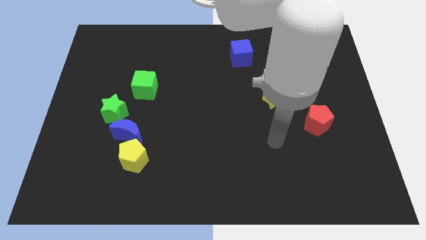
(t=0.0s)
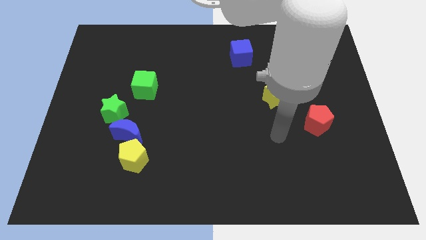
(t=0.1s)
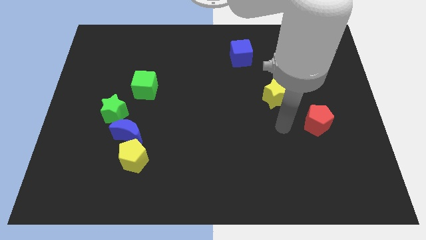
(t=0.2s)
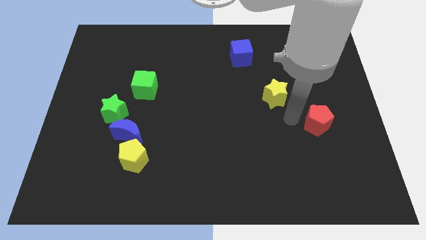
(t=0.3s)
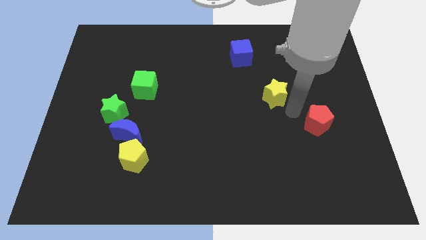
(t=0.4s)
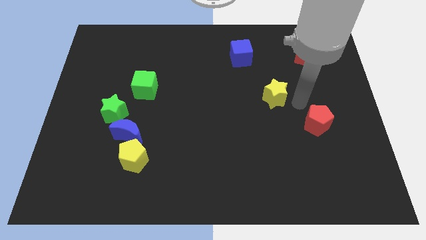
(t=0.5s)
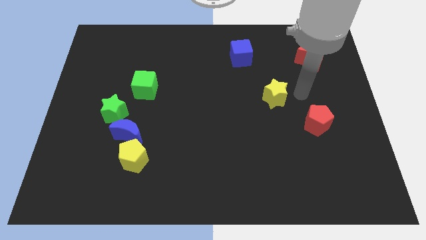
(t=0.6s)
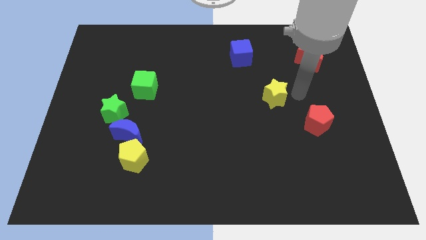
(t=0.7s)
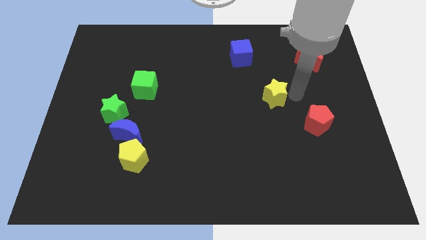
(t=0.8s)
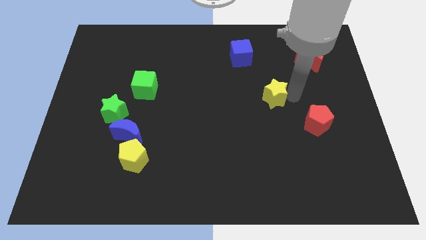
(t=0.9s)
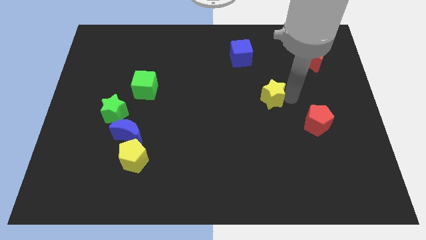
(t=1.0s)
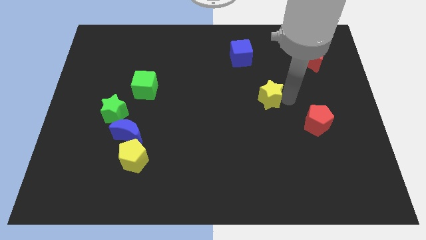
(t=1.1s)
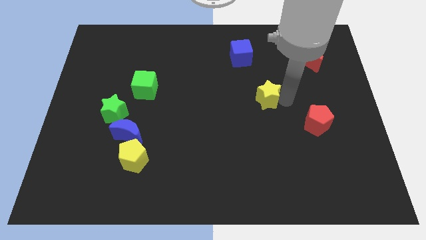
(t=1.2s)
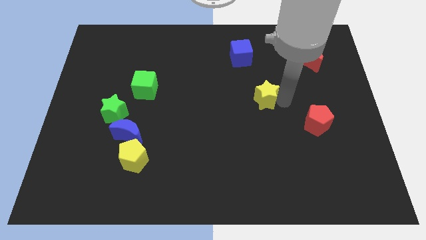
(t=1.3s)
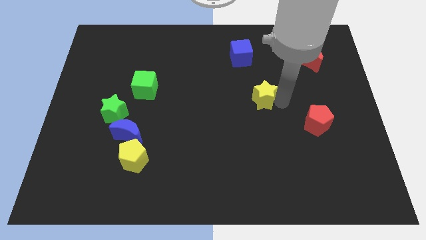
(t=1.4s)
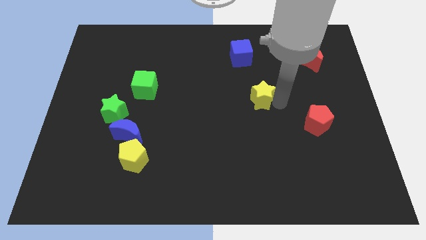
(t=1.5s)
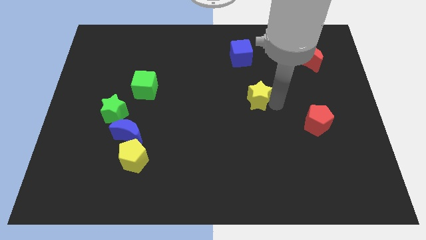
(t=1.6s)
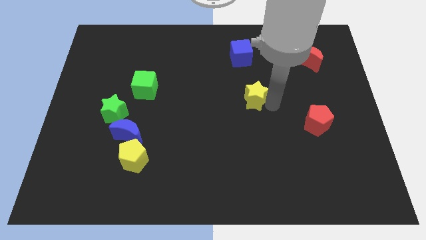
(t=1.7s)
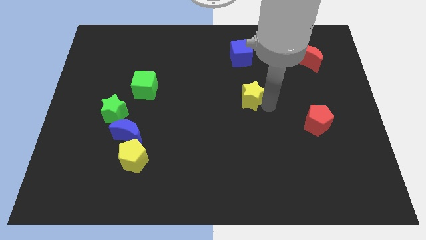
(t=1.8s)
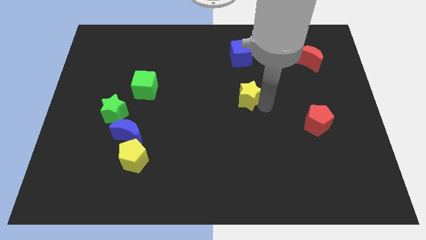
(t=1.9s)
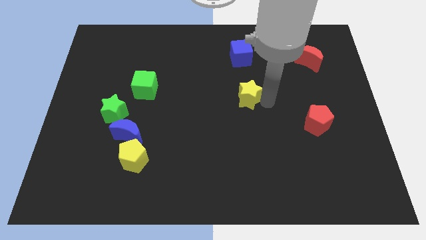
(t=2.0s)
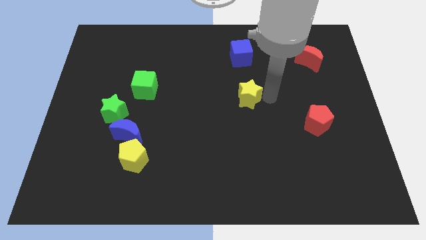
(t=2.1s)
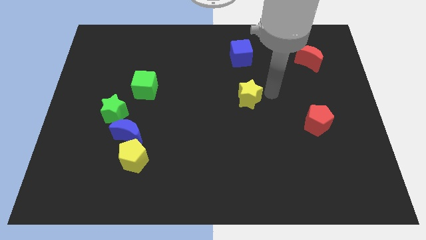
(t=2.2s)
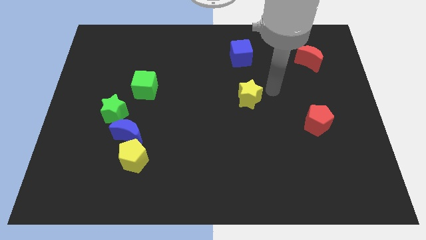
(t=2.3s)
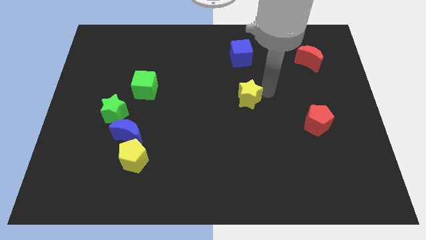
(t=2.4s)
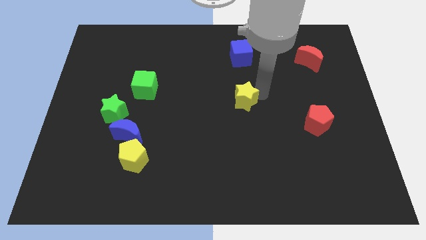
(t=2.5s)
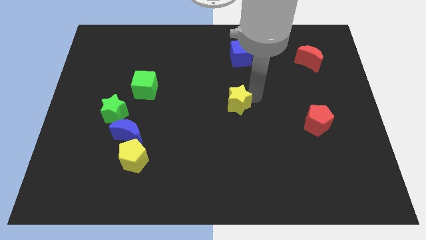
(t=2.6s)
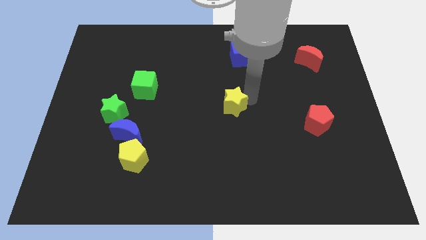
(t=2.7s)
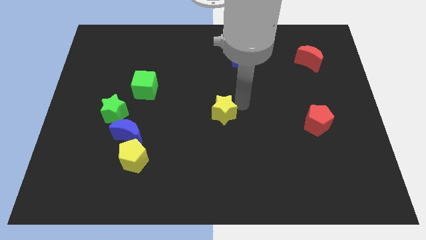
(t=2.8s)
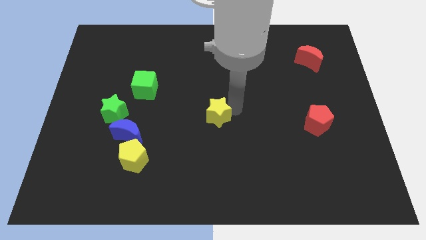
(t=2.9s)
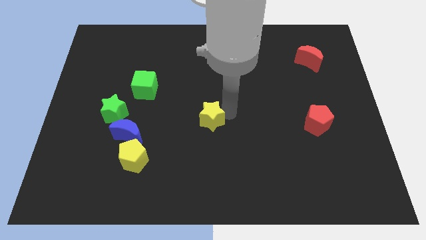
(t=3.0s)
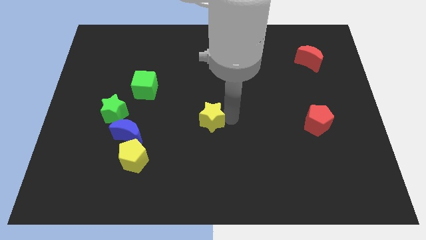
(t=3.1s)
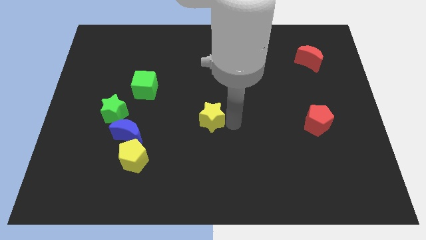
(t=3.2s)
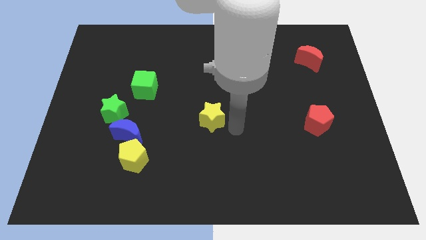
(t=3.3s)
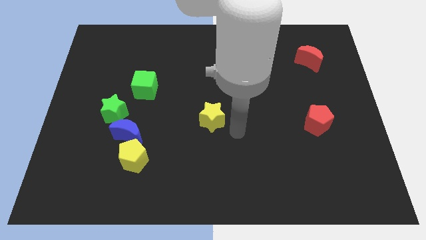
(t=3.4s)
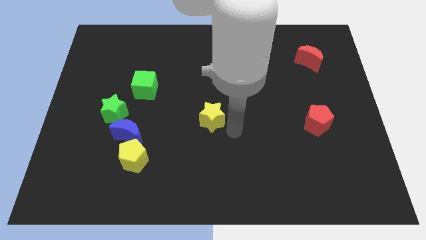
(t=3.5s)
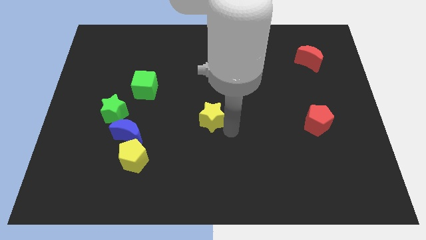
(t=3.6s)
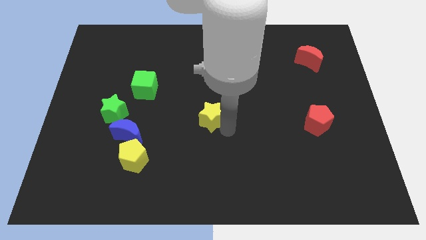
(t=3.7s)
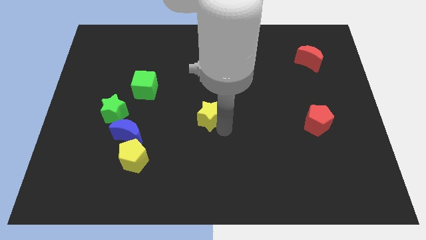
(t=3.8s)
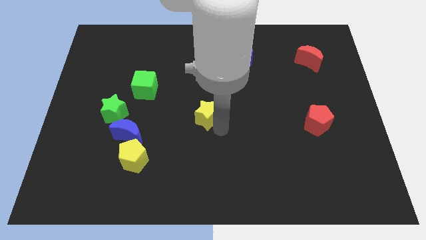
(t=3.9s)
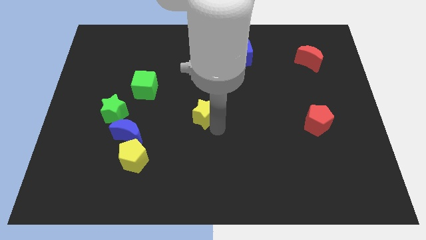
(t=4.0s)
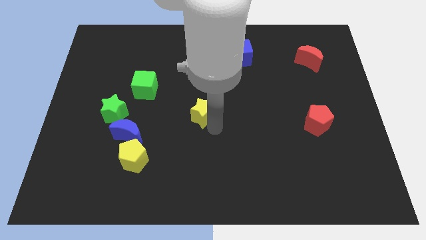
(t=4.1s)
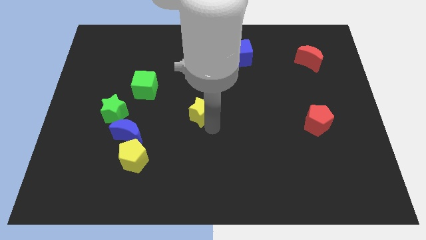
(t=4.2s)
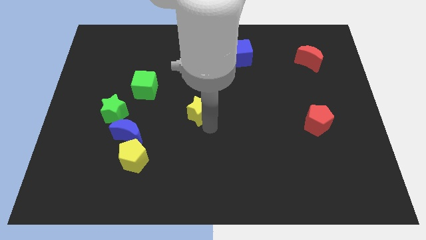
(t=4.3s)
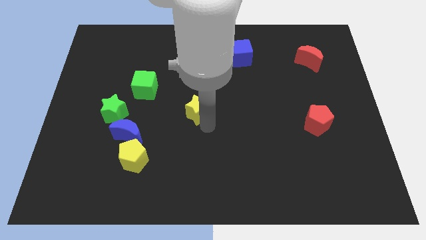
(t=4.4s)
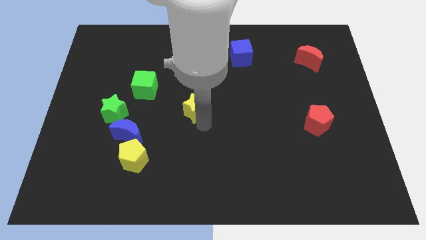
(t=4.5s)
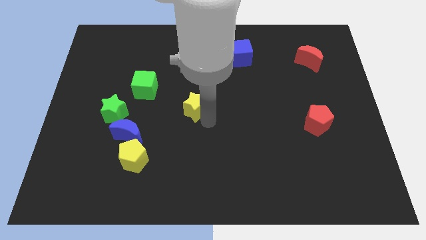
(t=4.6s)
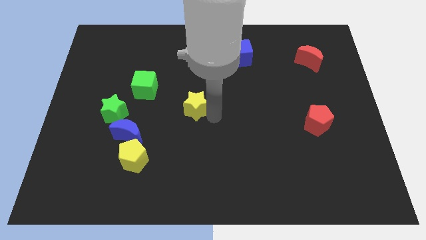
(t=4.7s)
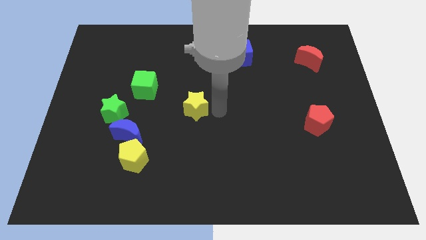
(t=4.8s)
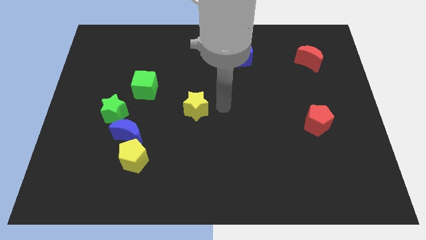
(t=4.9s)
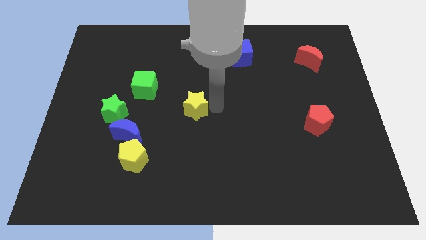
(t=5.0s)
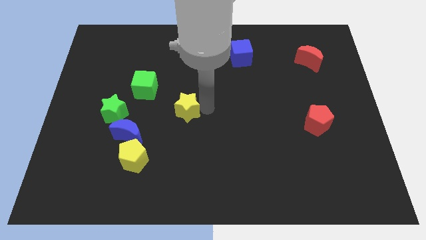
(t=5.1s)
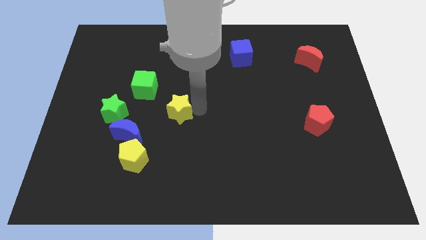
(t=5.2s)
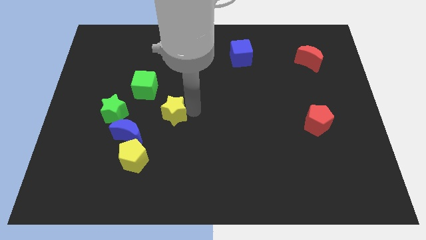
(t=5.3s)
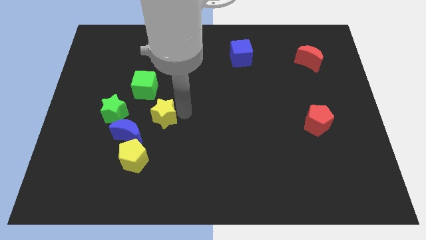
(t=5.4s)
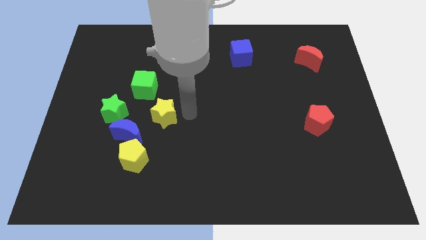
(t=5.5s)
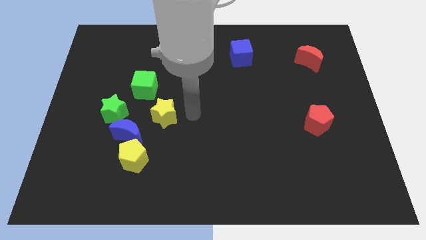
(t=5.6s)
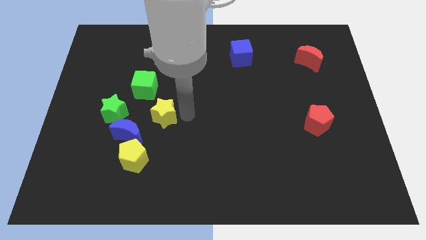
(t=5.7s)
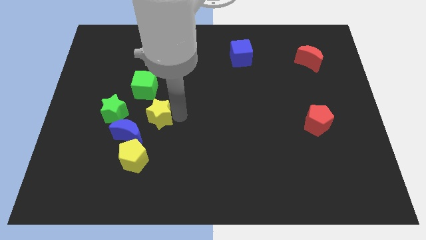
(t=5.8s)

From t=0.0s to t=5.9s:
slide the yellow star to the top side of the yellow pentagon
